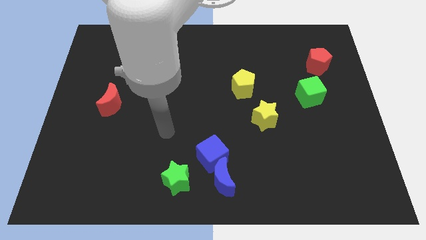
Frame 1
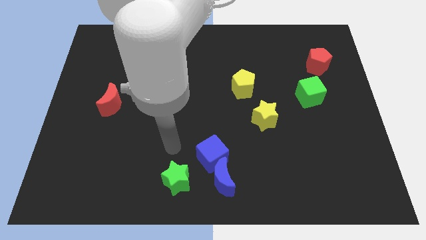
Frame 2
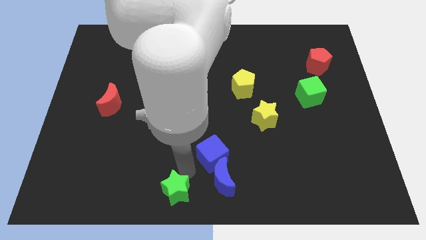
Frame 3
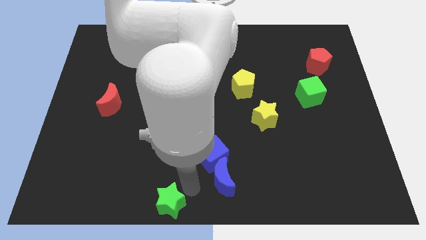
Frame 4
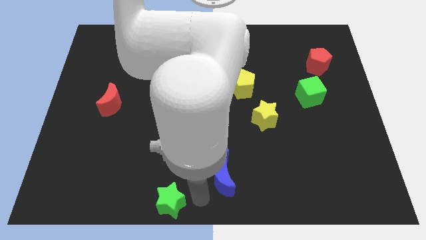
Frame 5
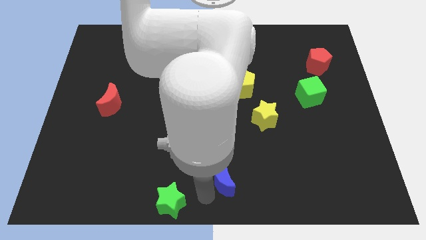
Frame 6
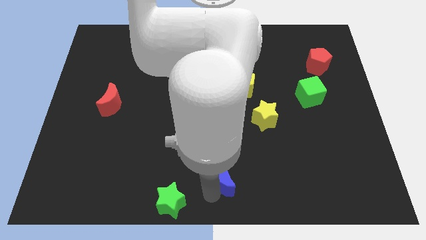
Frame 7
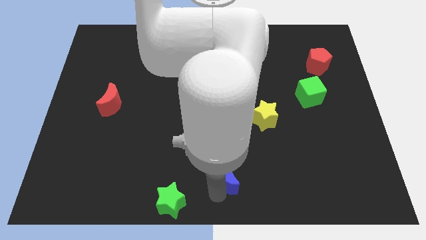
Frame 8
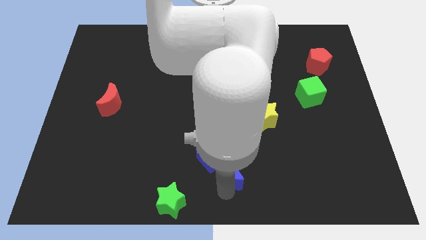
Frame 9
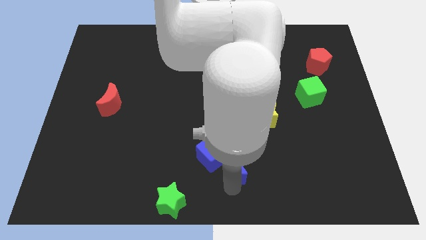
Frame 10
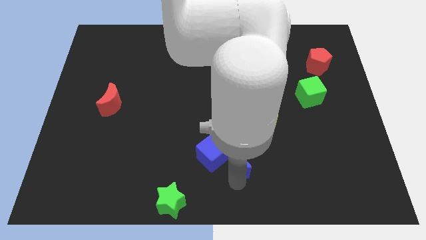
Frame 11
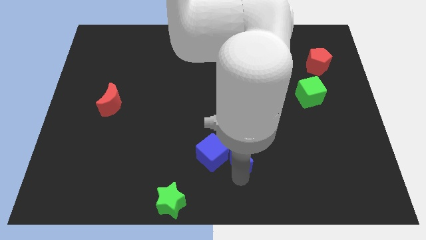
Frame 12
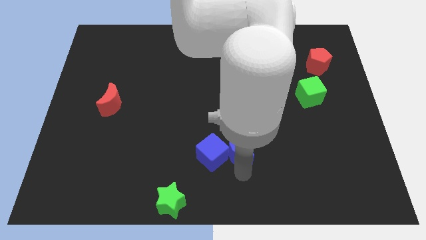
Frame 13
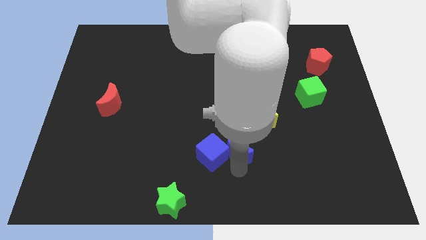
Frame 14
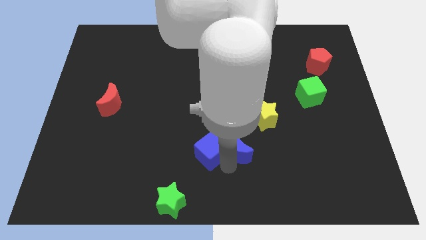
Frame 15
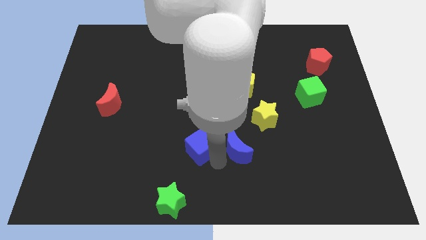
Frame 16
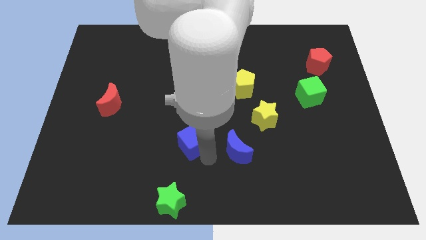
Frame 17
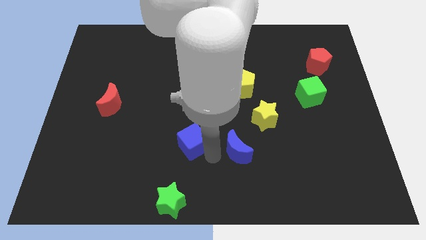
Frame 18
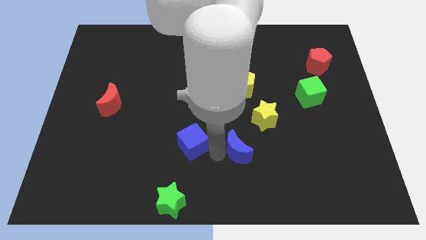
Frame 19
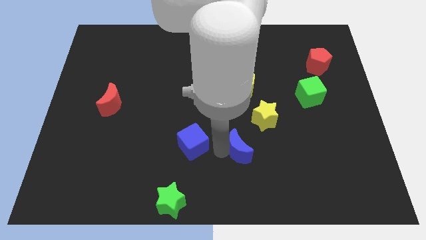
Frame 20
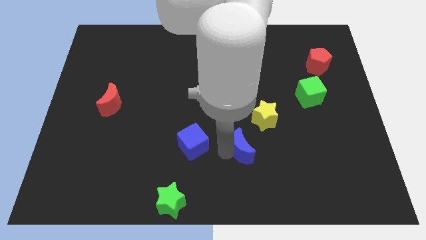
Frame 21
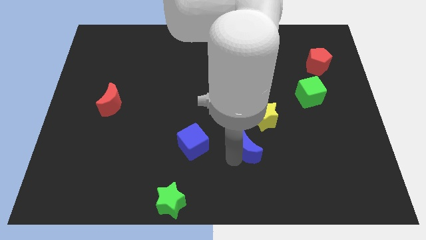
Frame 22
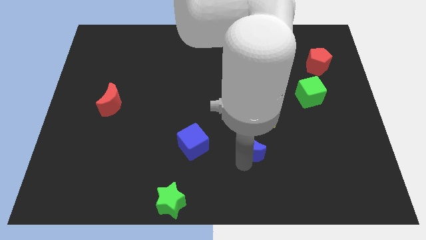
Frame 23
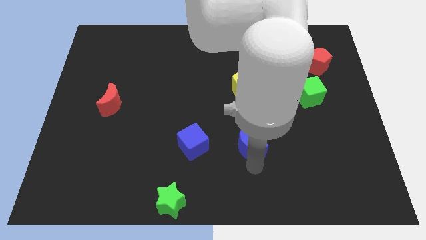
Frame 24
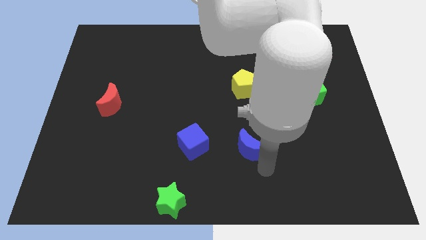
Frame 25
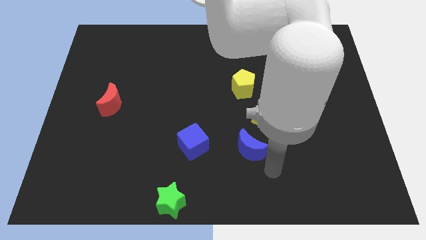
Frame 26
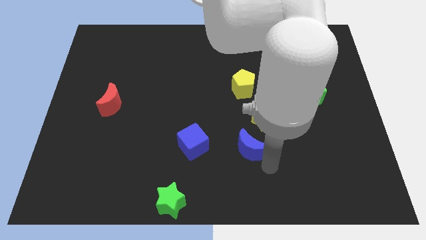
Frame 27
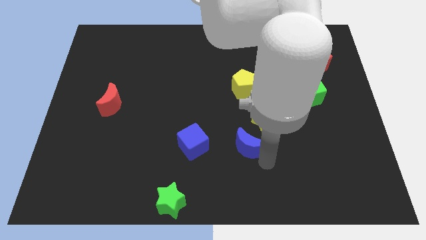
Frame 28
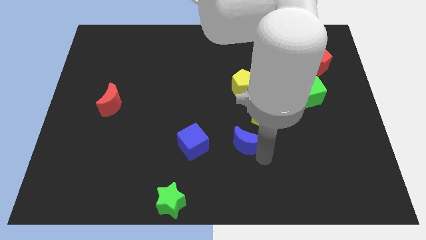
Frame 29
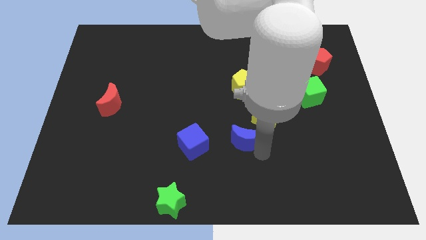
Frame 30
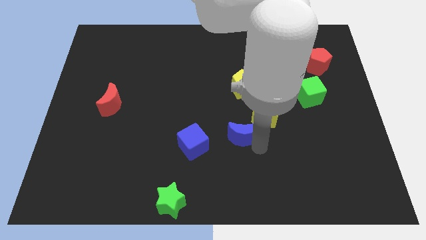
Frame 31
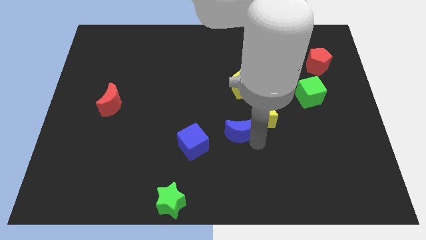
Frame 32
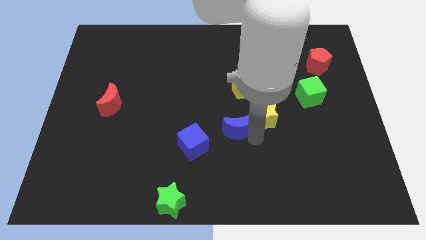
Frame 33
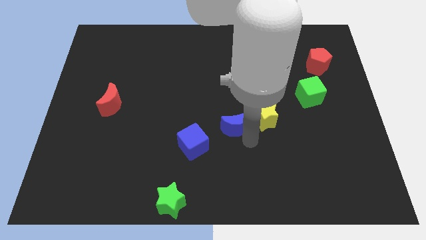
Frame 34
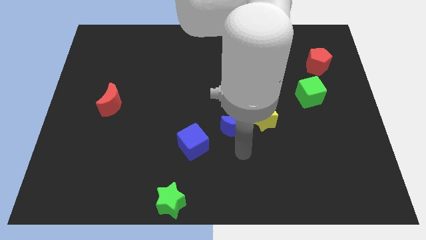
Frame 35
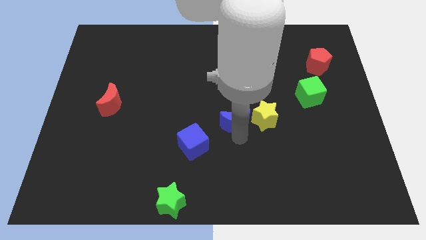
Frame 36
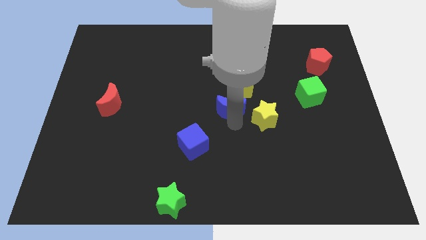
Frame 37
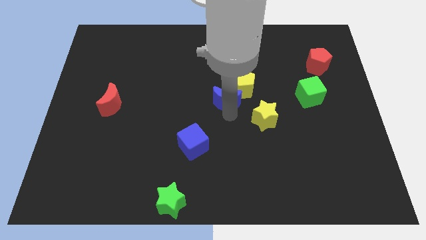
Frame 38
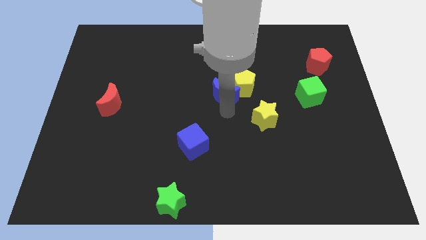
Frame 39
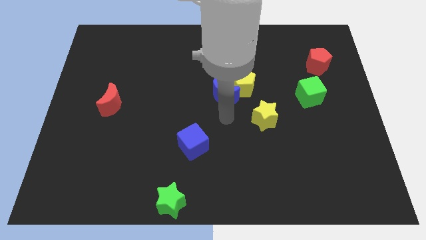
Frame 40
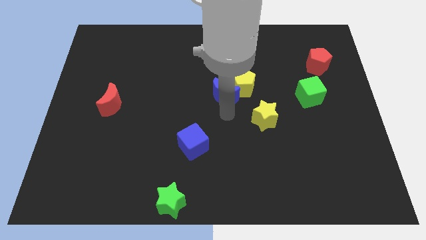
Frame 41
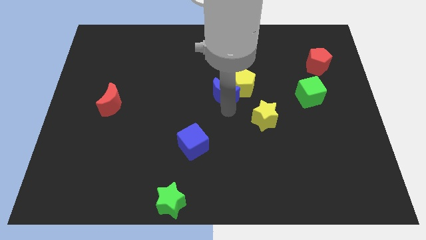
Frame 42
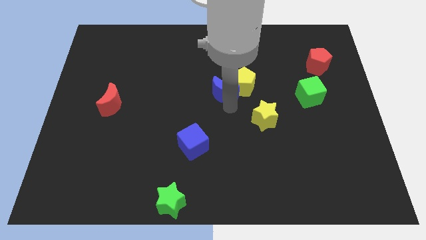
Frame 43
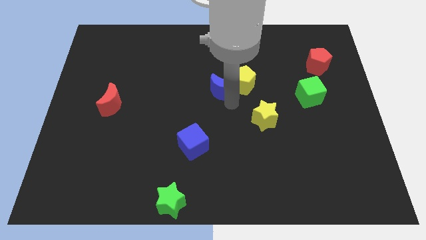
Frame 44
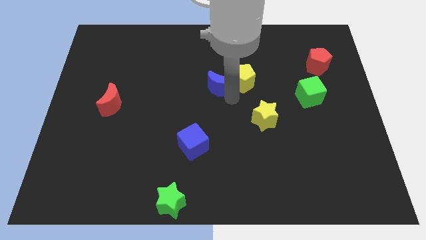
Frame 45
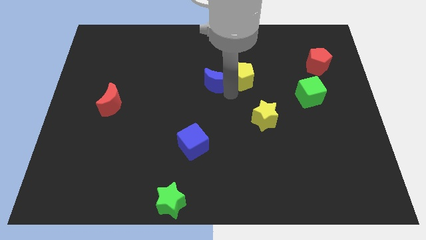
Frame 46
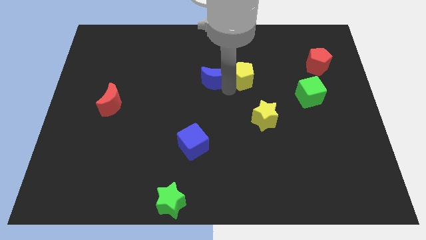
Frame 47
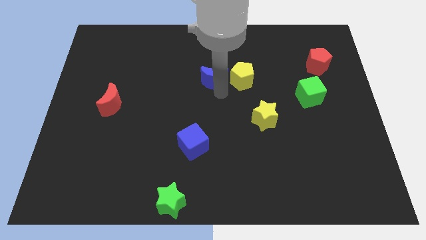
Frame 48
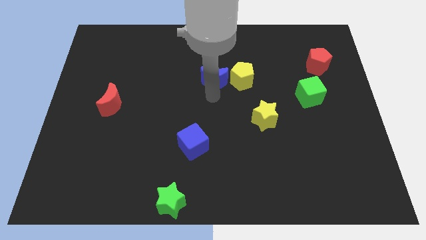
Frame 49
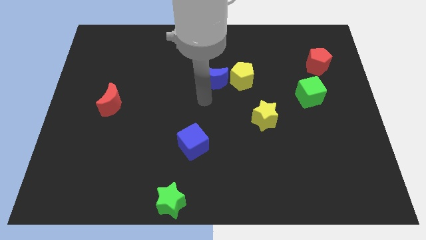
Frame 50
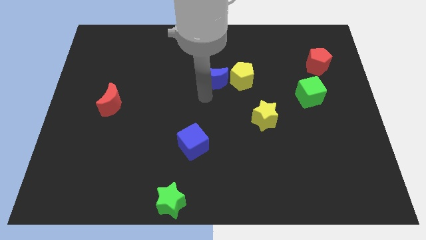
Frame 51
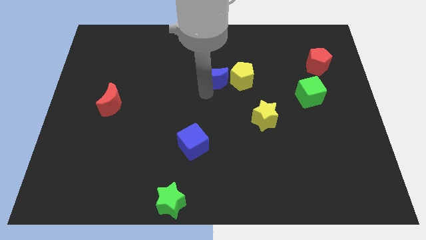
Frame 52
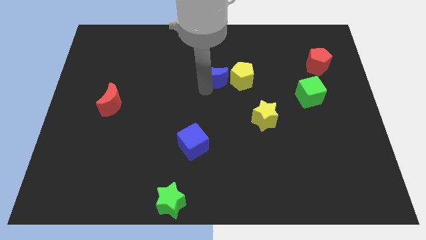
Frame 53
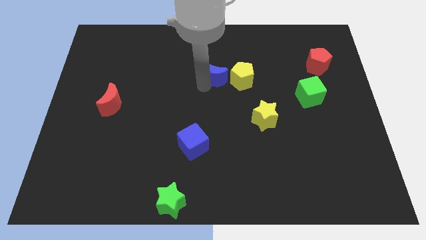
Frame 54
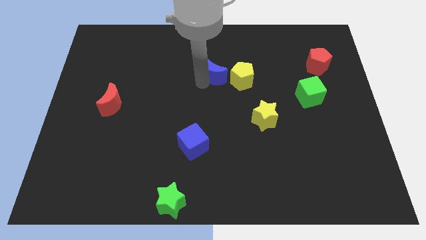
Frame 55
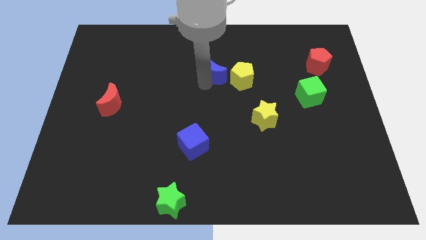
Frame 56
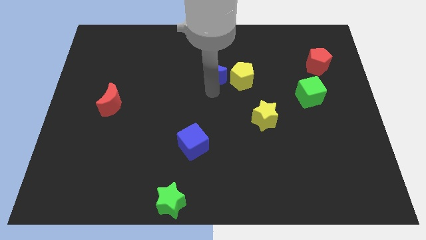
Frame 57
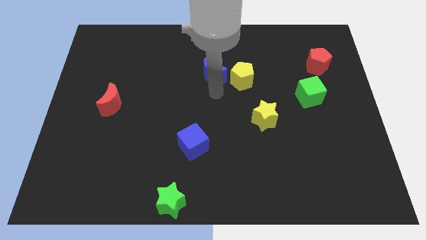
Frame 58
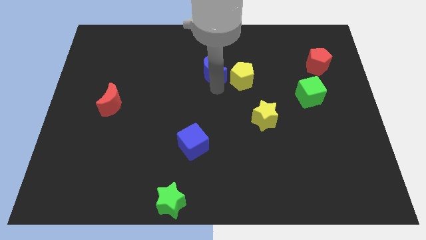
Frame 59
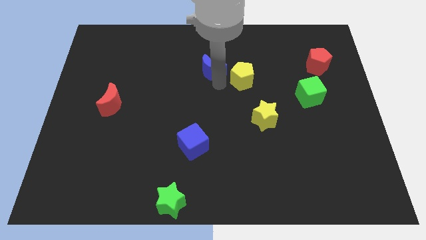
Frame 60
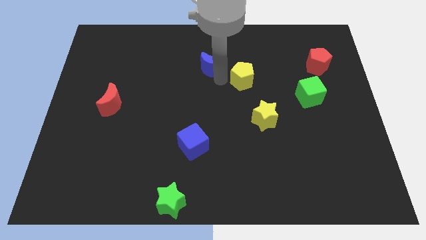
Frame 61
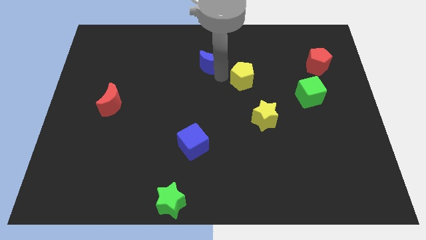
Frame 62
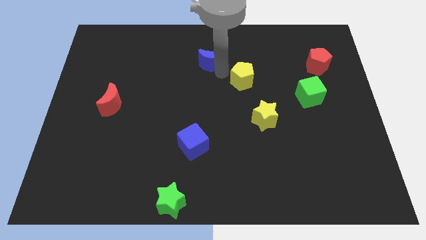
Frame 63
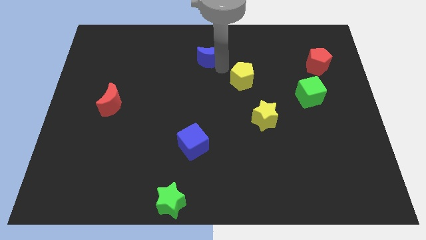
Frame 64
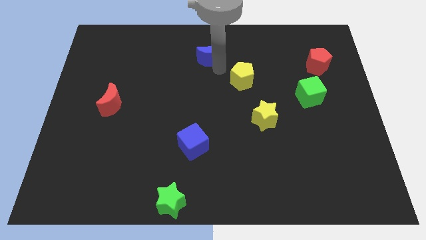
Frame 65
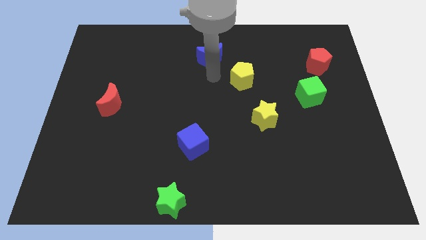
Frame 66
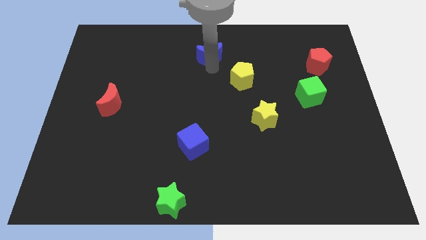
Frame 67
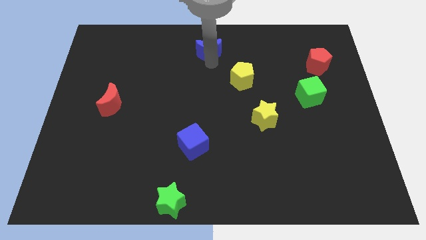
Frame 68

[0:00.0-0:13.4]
push the blue moon to the towards your base

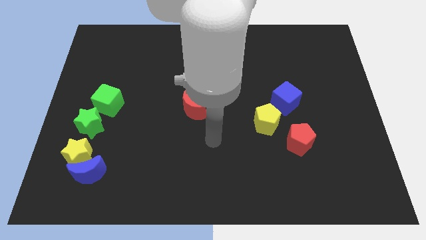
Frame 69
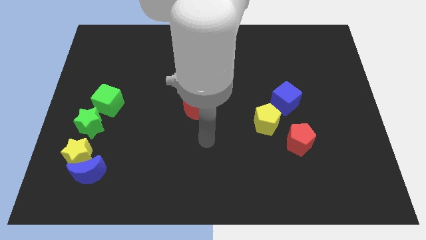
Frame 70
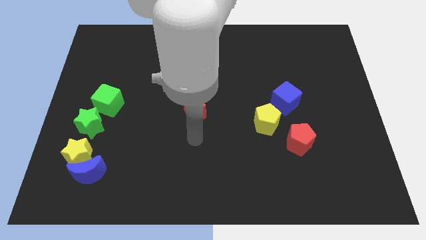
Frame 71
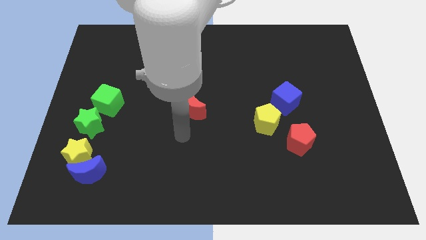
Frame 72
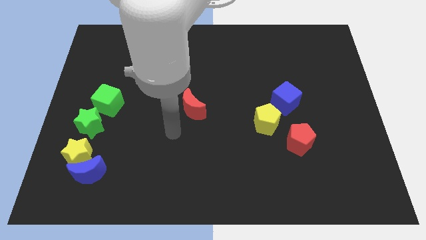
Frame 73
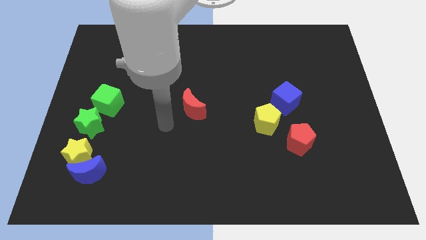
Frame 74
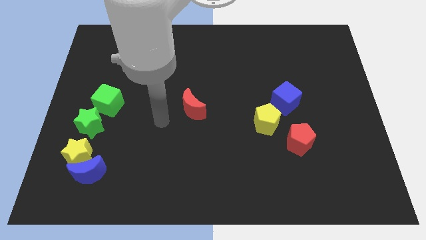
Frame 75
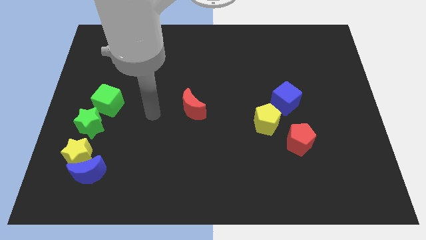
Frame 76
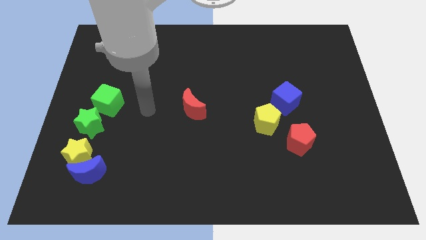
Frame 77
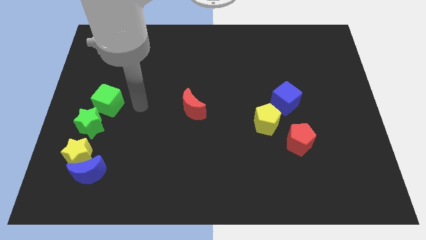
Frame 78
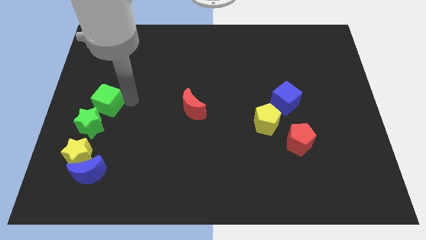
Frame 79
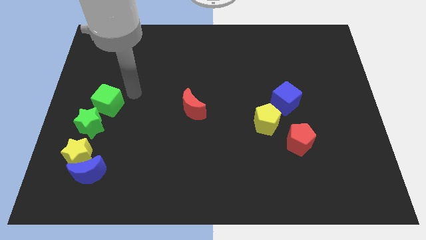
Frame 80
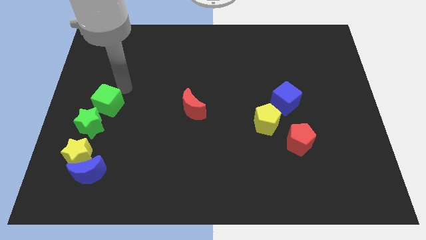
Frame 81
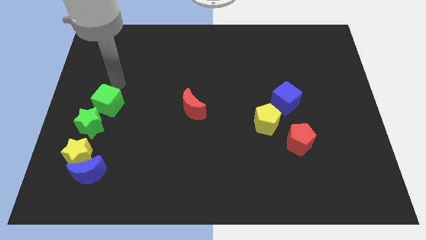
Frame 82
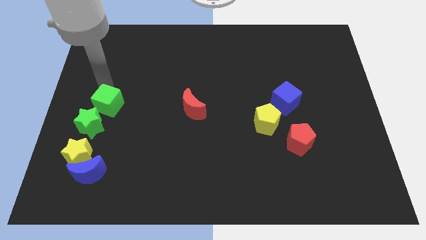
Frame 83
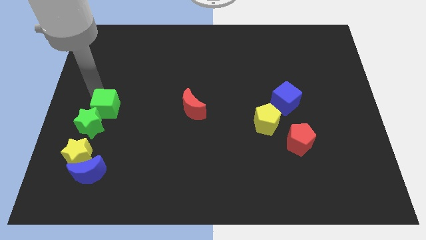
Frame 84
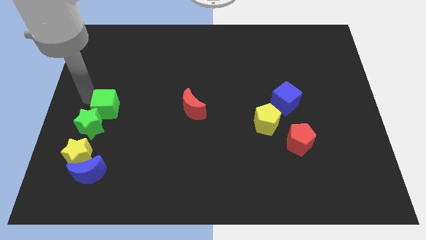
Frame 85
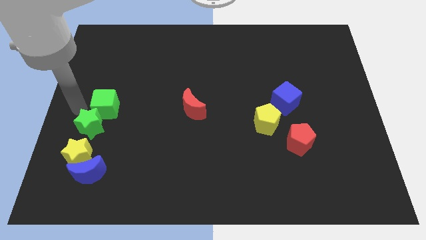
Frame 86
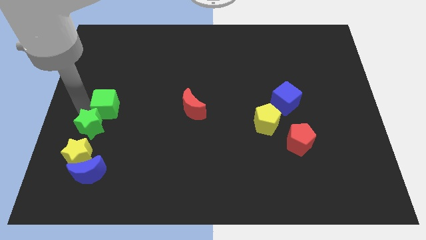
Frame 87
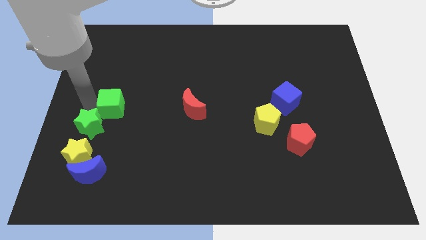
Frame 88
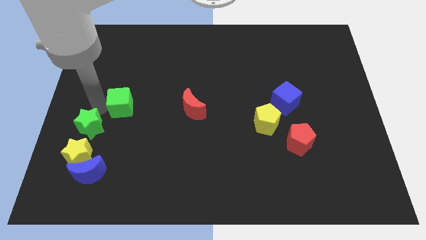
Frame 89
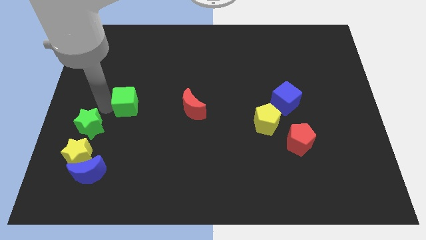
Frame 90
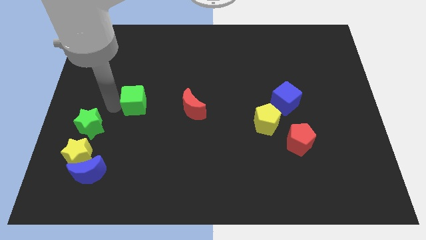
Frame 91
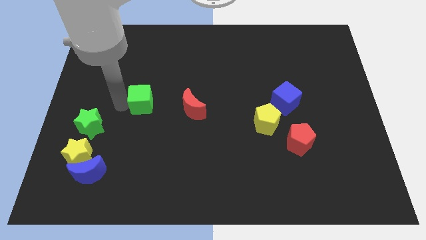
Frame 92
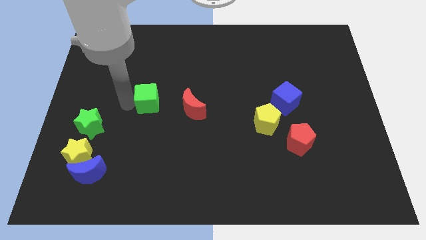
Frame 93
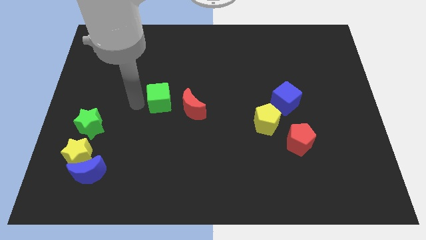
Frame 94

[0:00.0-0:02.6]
slide the green cube to the center of the board
